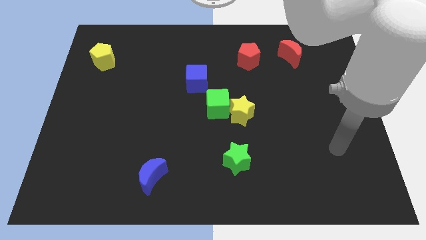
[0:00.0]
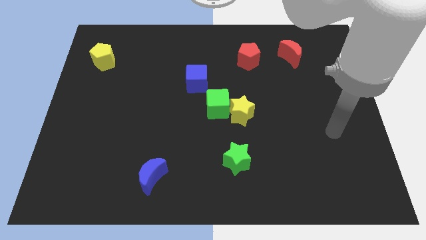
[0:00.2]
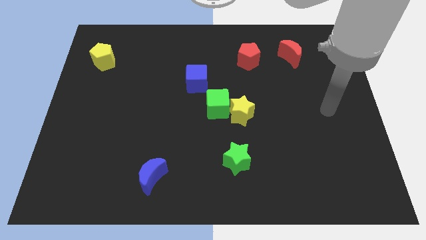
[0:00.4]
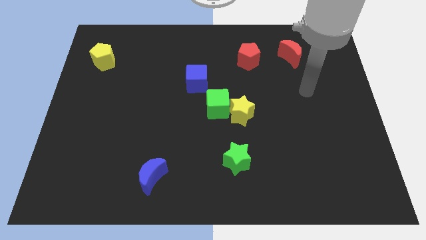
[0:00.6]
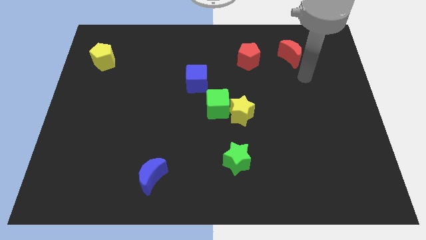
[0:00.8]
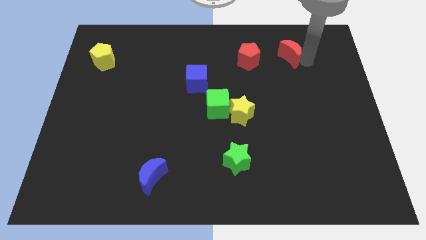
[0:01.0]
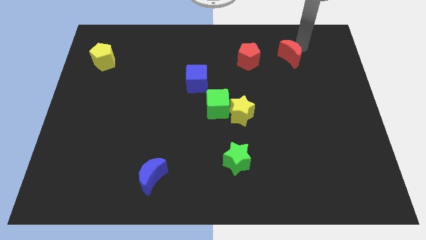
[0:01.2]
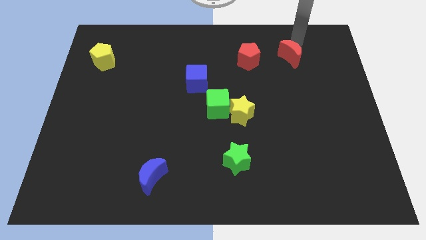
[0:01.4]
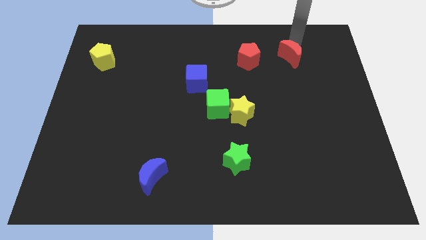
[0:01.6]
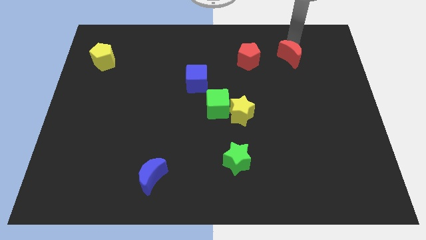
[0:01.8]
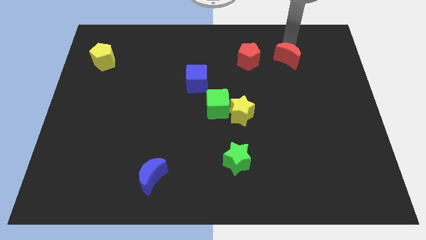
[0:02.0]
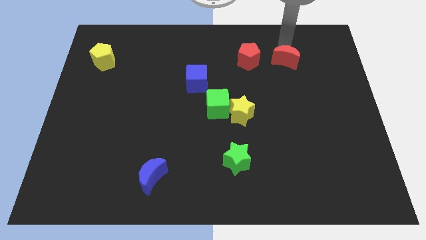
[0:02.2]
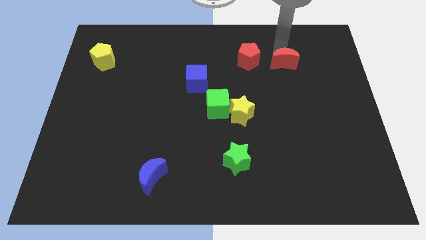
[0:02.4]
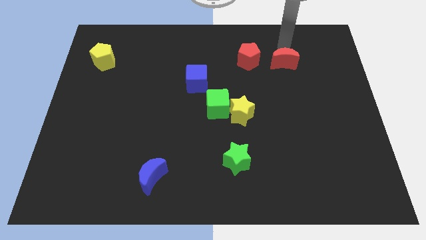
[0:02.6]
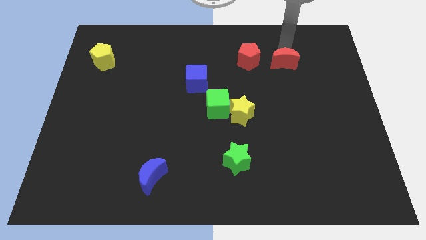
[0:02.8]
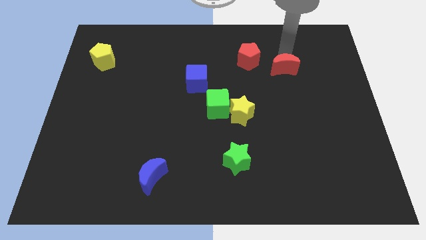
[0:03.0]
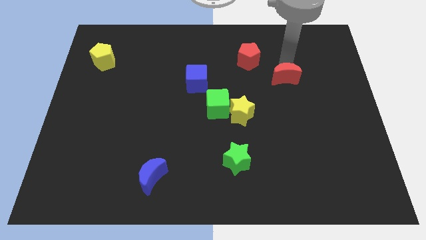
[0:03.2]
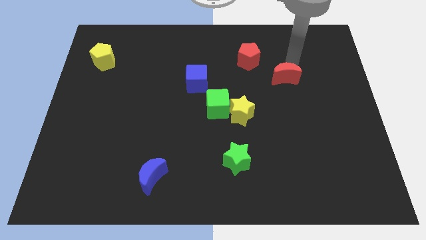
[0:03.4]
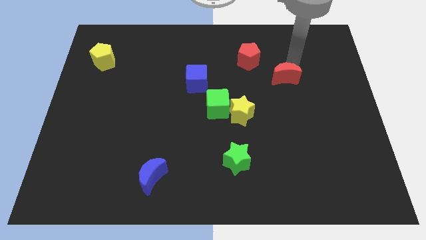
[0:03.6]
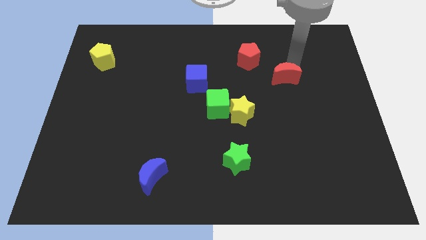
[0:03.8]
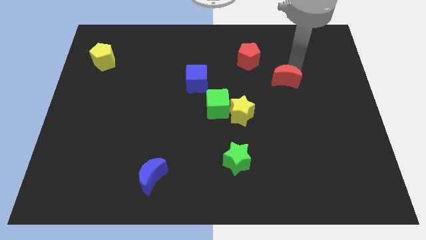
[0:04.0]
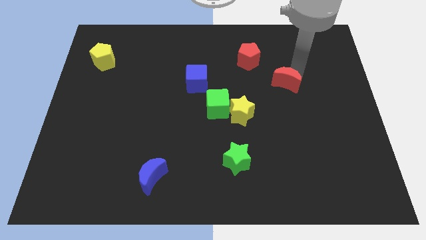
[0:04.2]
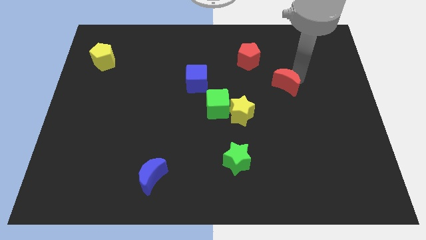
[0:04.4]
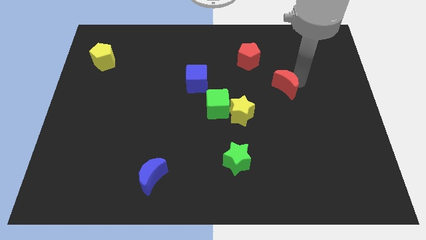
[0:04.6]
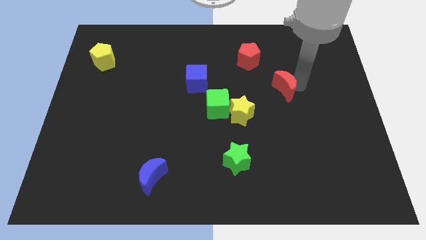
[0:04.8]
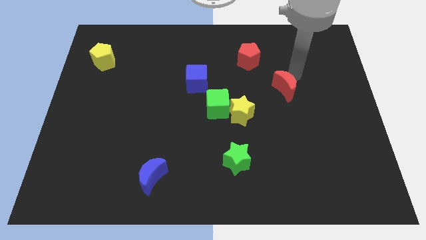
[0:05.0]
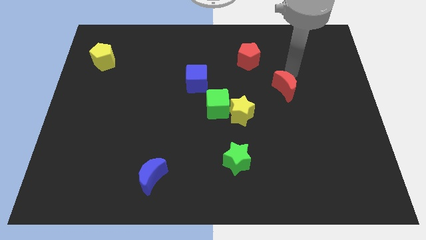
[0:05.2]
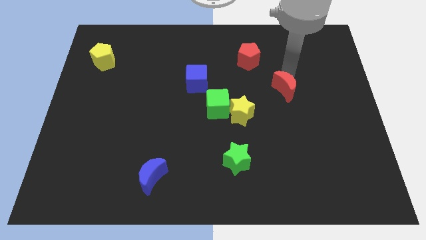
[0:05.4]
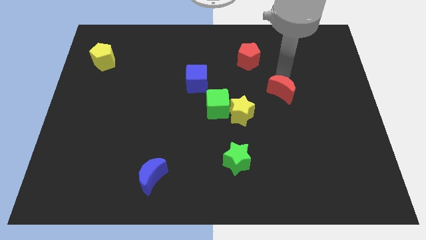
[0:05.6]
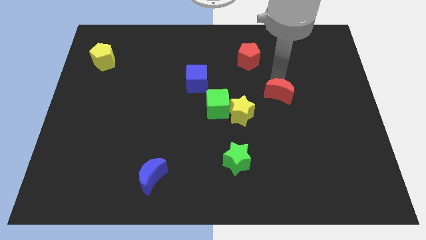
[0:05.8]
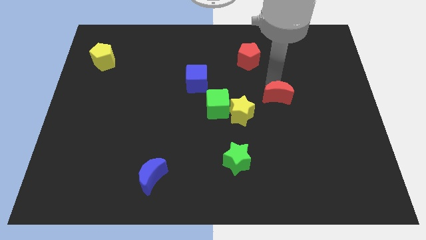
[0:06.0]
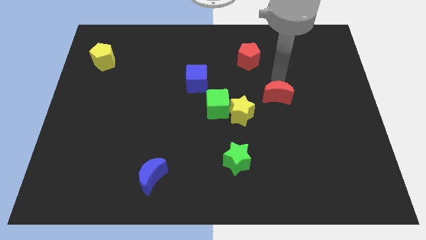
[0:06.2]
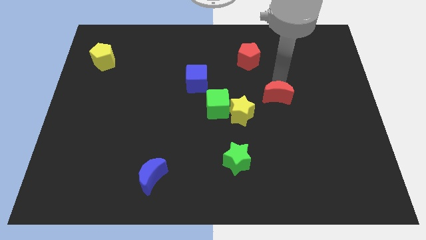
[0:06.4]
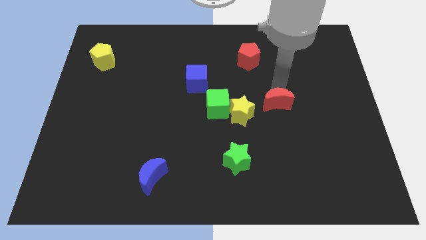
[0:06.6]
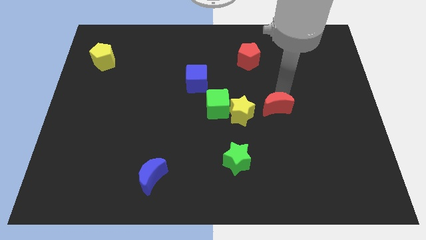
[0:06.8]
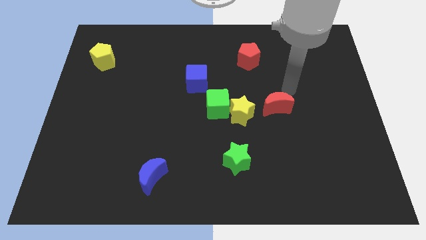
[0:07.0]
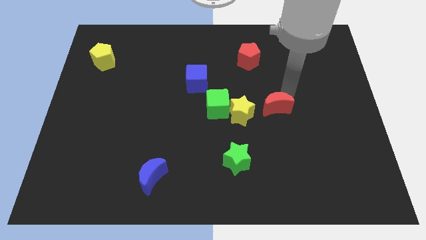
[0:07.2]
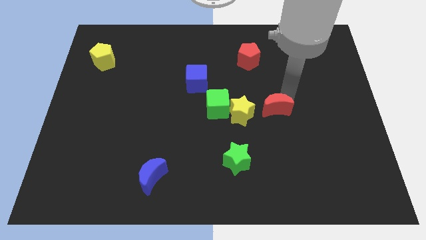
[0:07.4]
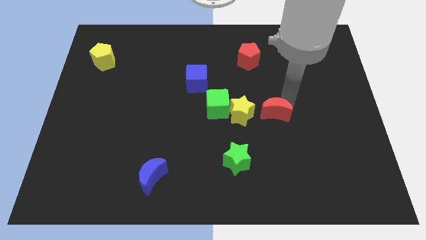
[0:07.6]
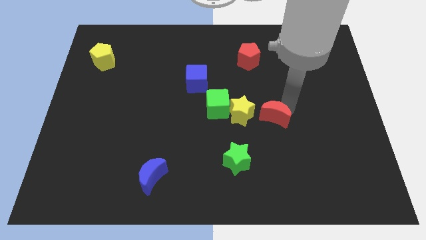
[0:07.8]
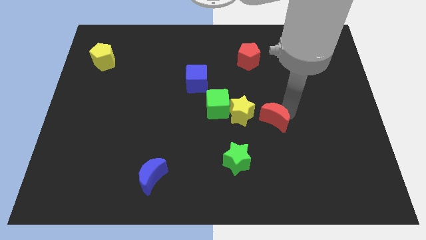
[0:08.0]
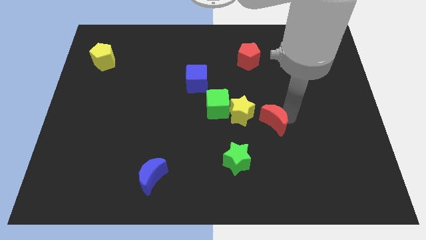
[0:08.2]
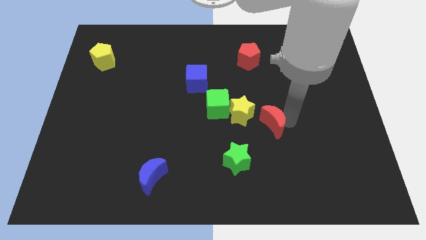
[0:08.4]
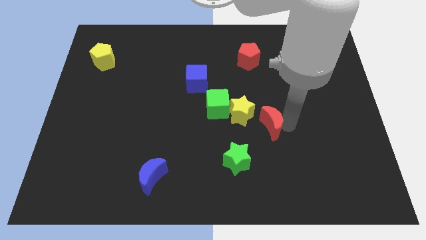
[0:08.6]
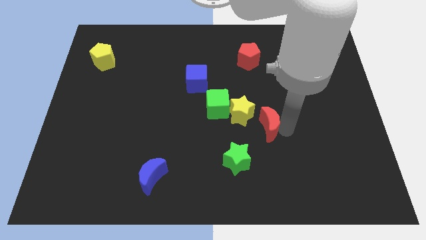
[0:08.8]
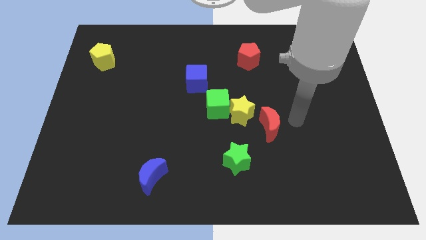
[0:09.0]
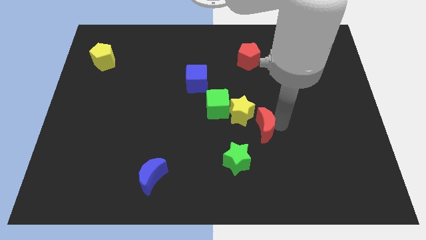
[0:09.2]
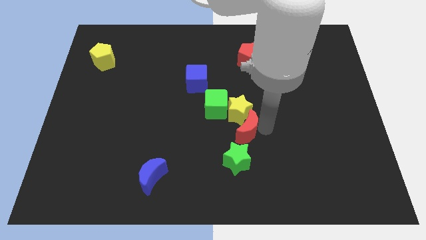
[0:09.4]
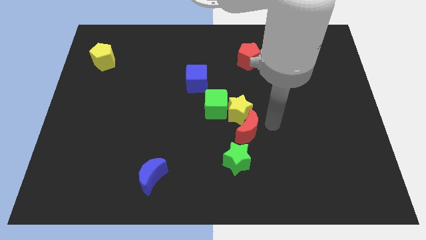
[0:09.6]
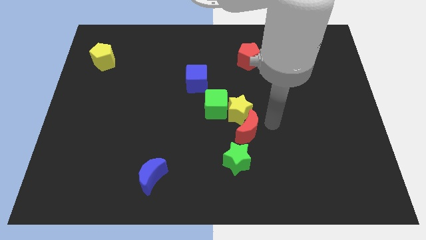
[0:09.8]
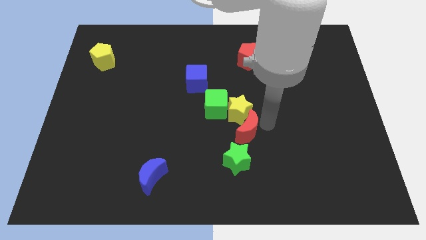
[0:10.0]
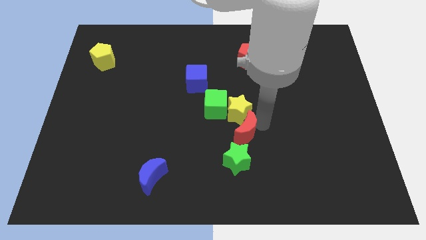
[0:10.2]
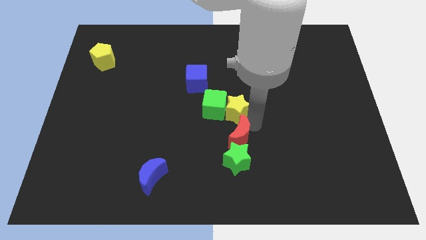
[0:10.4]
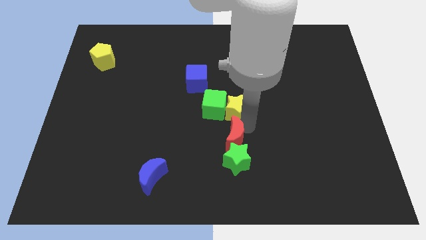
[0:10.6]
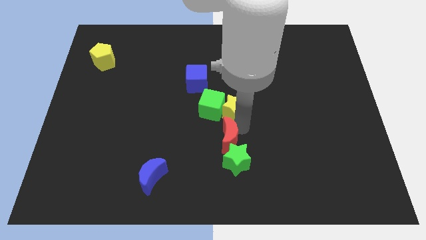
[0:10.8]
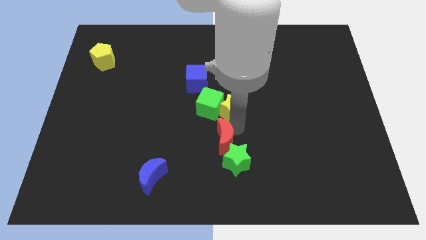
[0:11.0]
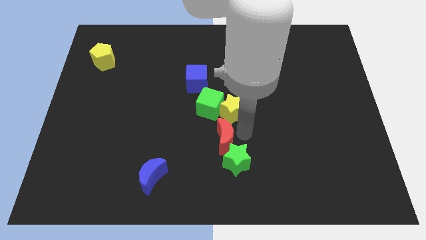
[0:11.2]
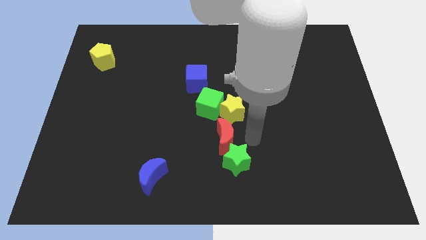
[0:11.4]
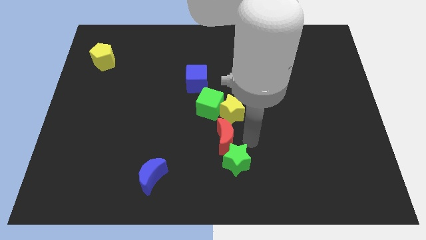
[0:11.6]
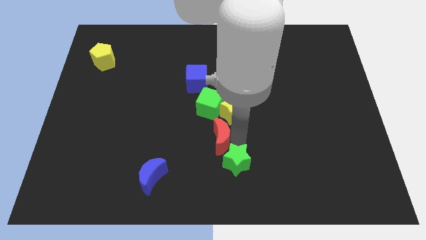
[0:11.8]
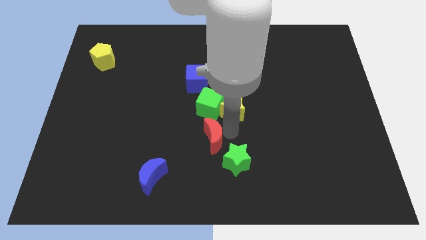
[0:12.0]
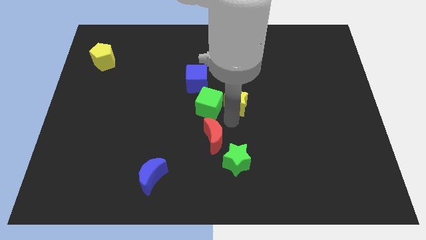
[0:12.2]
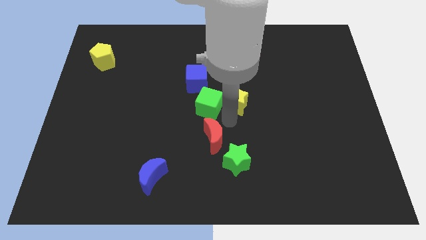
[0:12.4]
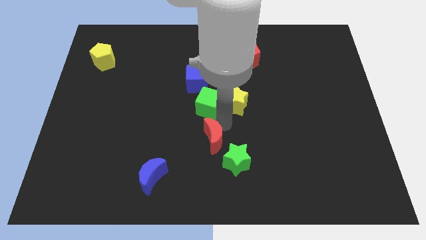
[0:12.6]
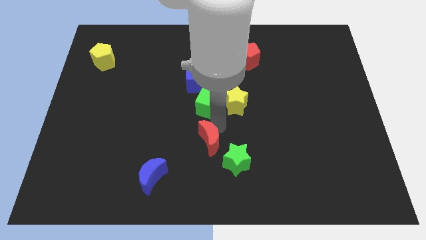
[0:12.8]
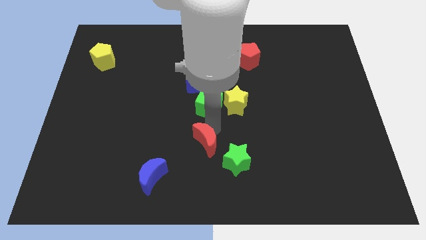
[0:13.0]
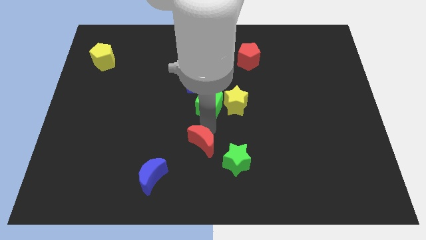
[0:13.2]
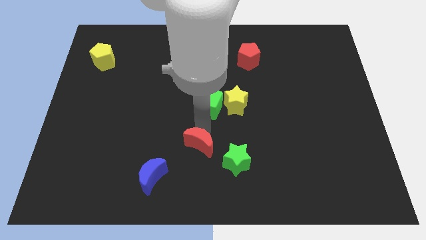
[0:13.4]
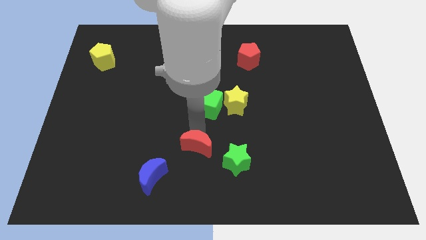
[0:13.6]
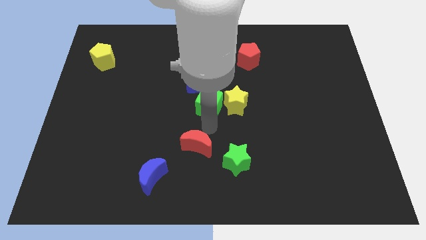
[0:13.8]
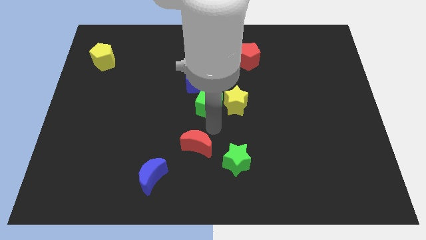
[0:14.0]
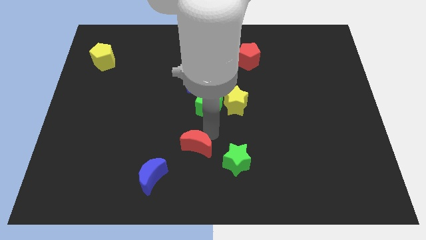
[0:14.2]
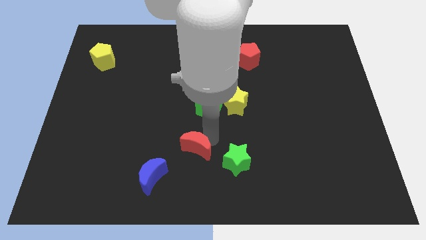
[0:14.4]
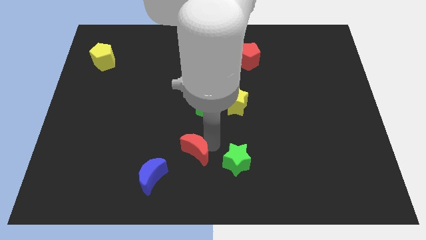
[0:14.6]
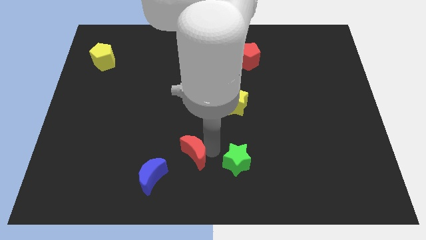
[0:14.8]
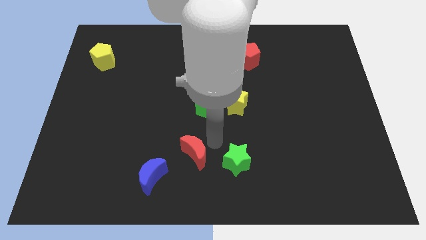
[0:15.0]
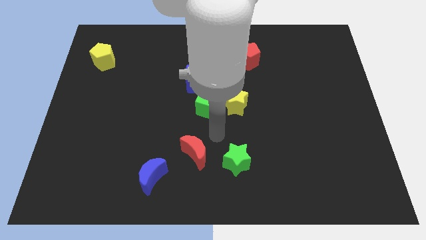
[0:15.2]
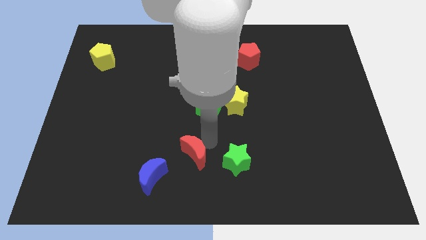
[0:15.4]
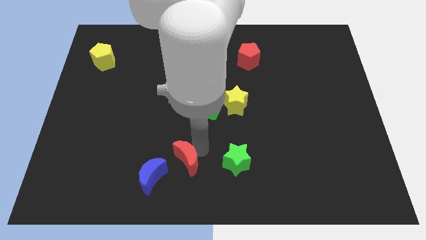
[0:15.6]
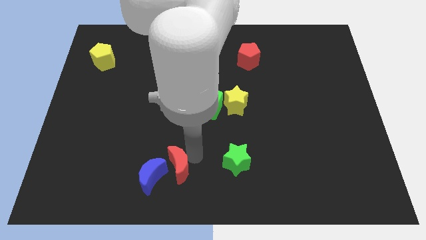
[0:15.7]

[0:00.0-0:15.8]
put the red moon to the blue moon
